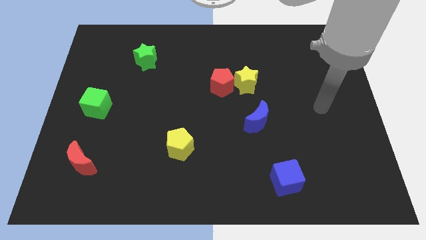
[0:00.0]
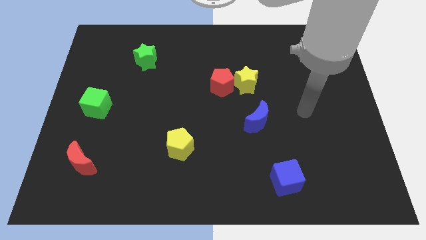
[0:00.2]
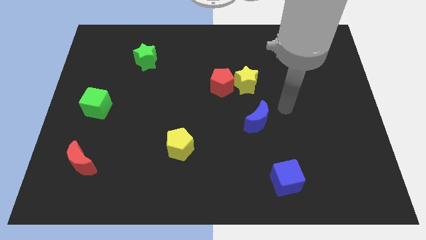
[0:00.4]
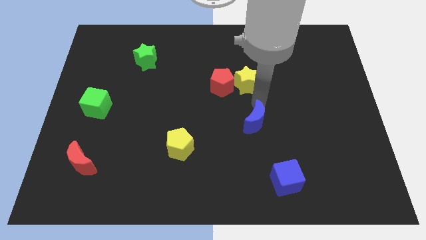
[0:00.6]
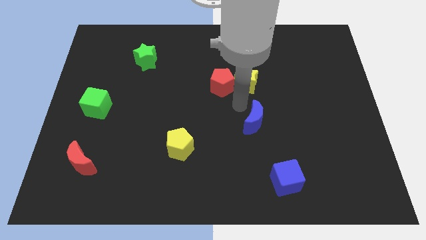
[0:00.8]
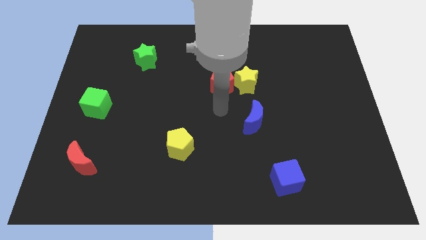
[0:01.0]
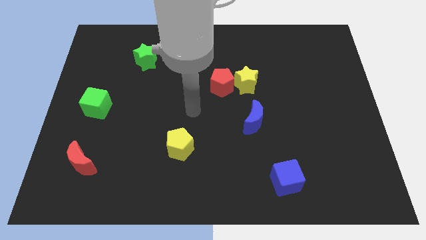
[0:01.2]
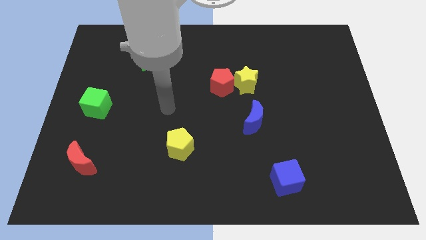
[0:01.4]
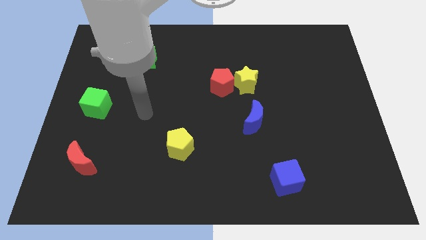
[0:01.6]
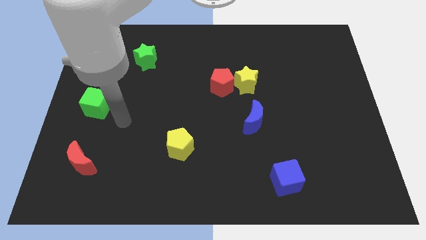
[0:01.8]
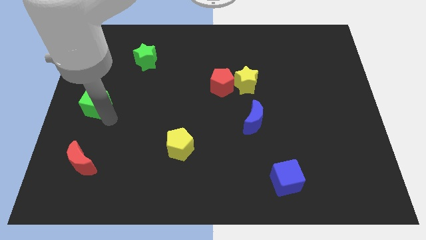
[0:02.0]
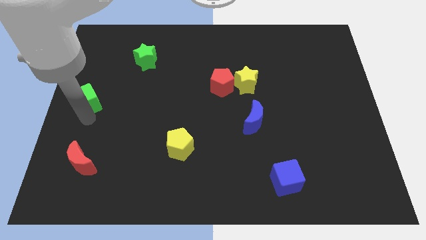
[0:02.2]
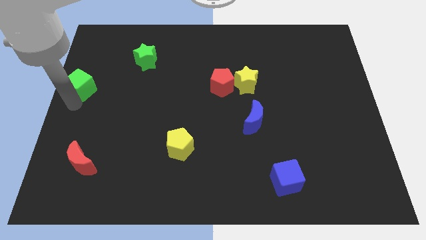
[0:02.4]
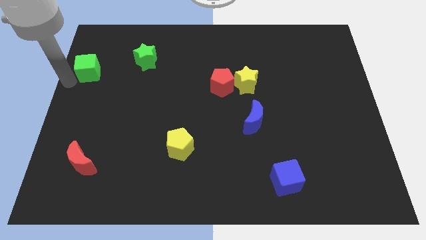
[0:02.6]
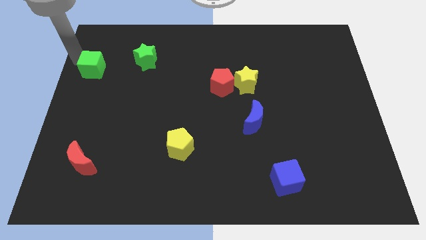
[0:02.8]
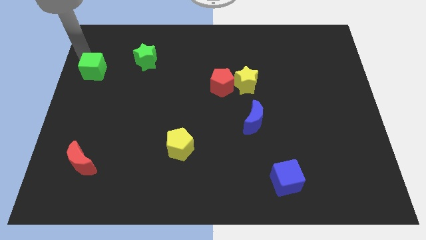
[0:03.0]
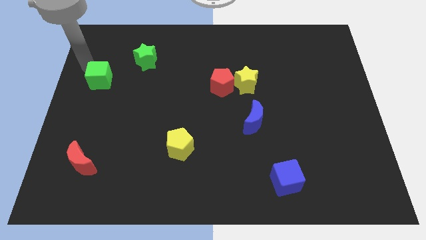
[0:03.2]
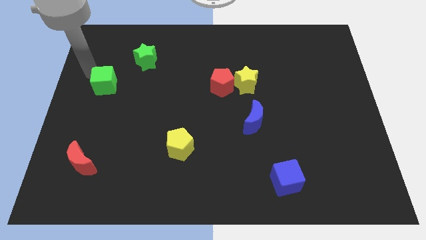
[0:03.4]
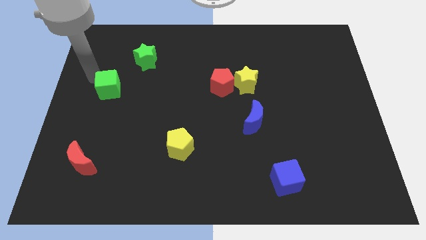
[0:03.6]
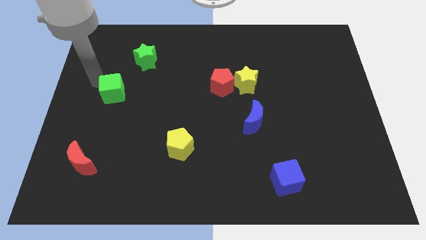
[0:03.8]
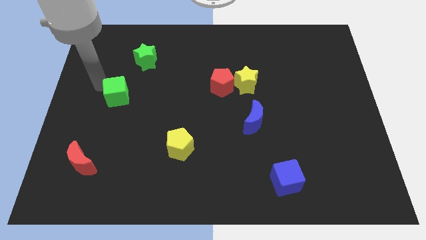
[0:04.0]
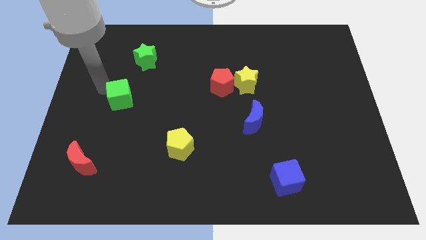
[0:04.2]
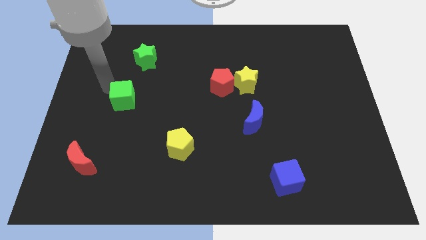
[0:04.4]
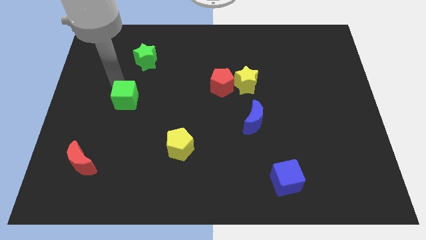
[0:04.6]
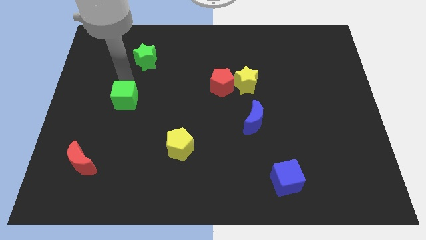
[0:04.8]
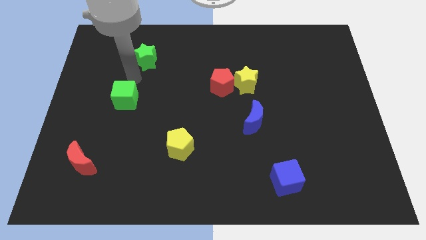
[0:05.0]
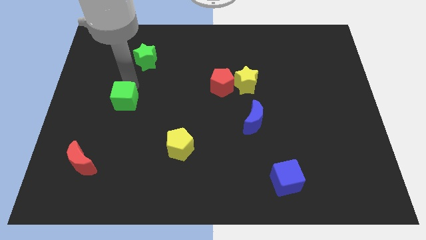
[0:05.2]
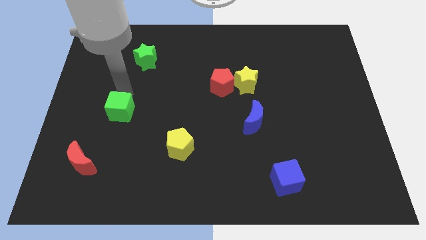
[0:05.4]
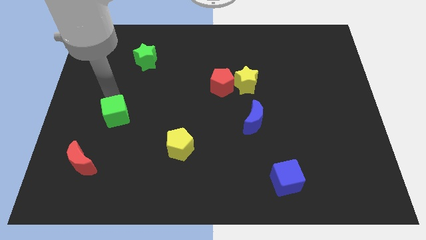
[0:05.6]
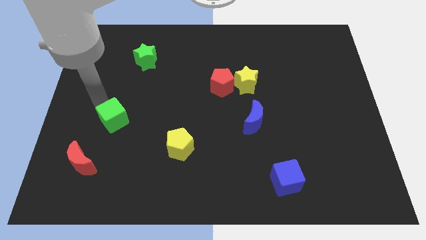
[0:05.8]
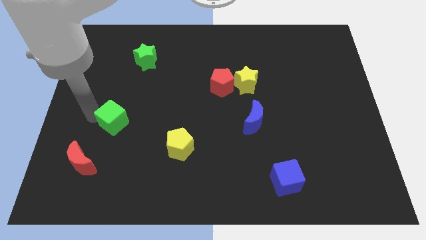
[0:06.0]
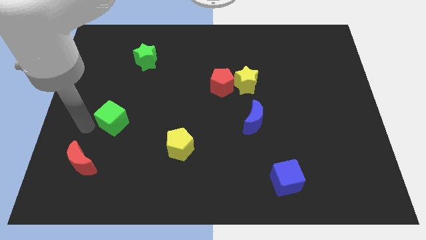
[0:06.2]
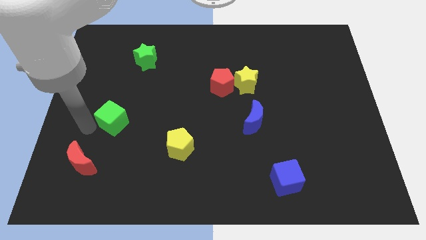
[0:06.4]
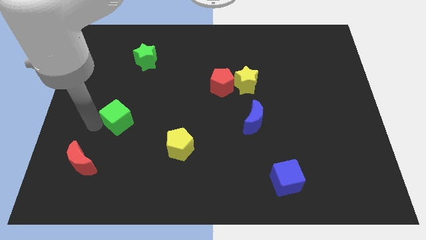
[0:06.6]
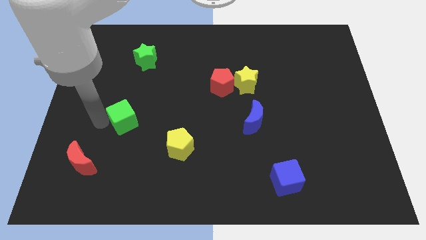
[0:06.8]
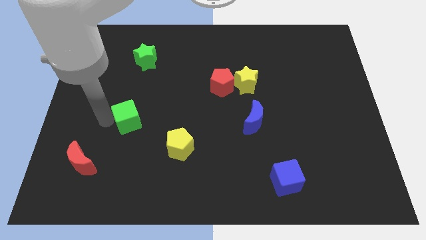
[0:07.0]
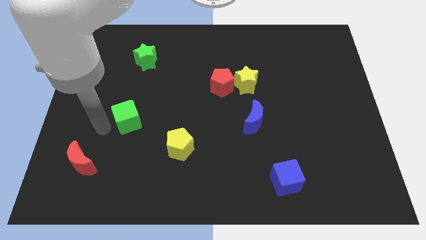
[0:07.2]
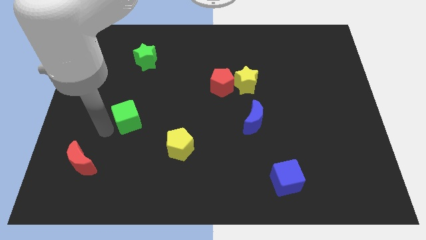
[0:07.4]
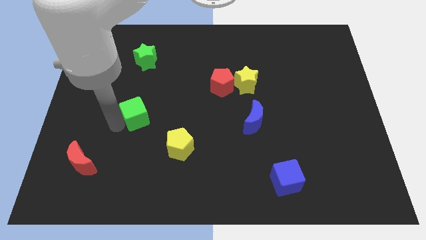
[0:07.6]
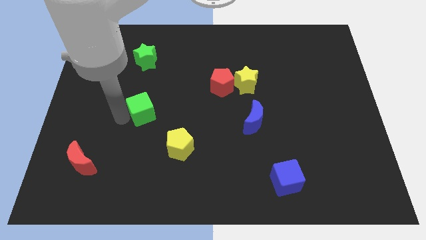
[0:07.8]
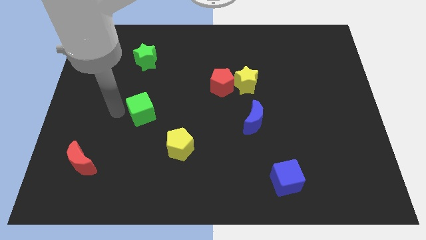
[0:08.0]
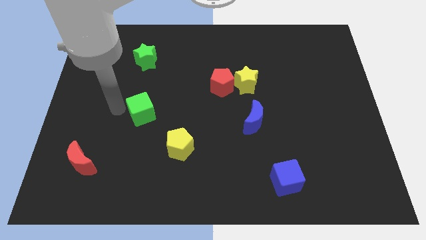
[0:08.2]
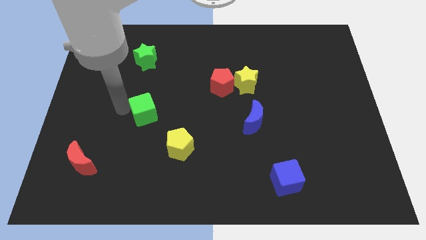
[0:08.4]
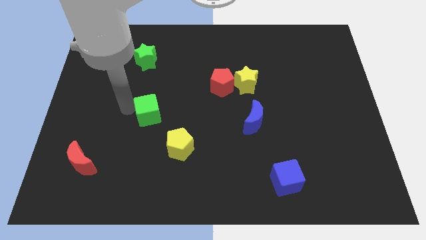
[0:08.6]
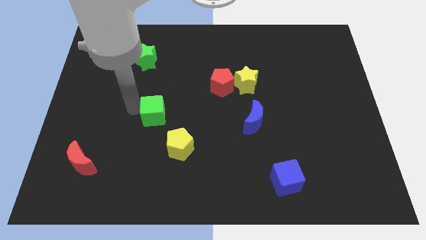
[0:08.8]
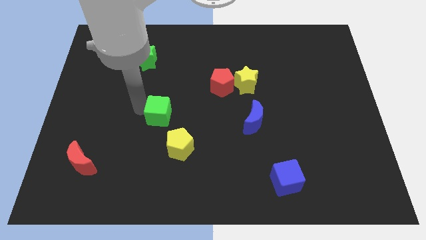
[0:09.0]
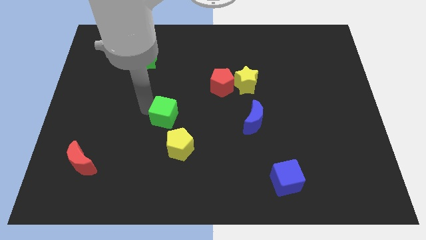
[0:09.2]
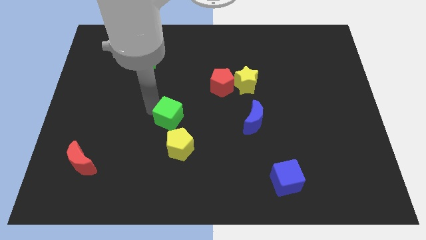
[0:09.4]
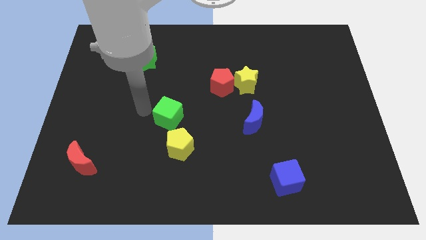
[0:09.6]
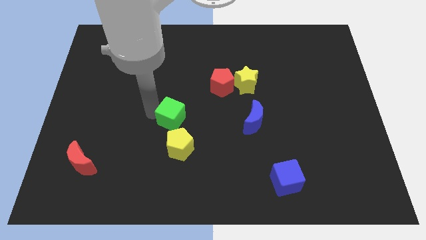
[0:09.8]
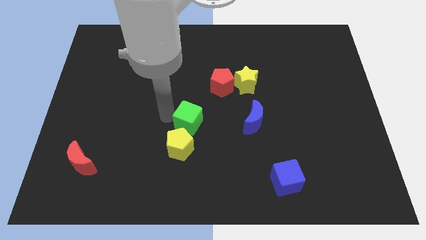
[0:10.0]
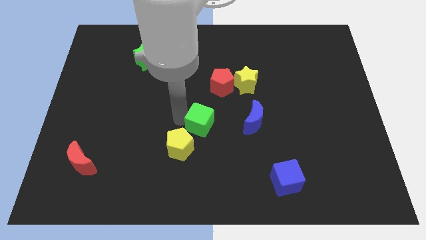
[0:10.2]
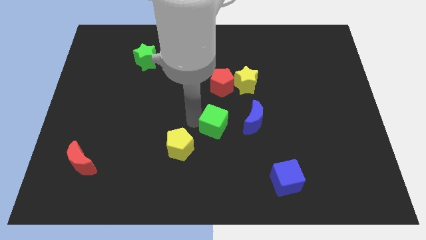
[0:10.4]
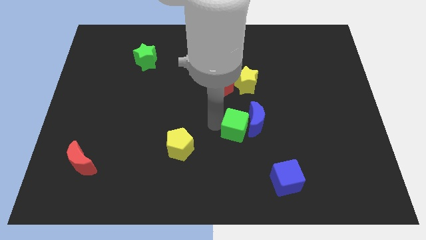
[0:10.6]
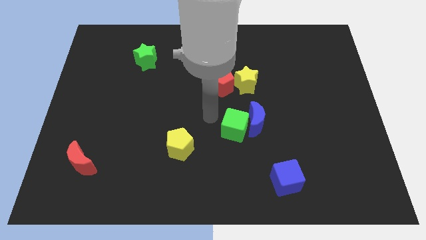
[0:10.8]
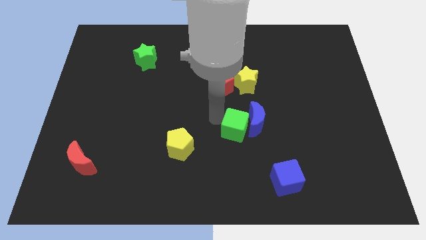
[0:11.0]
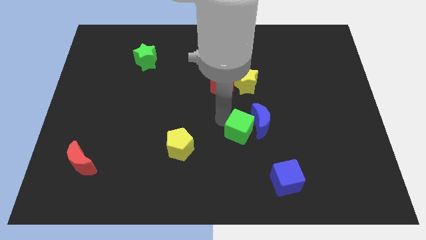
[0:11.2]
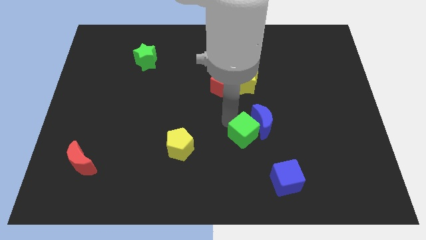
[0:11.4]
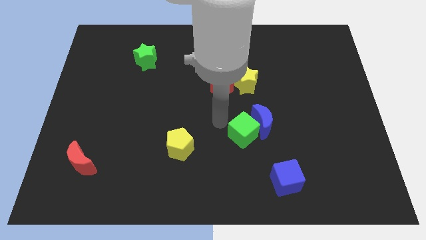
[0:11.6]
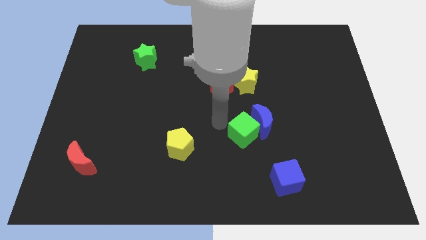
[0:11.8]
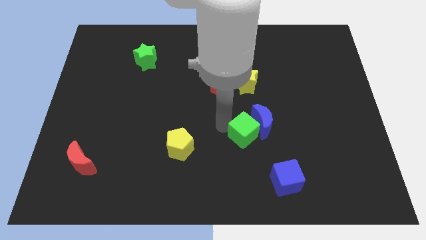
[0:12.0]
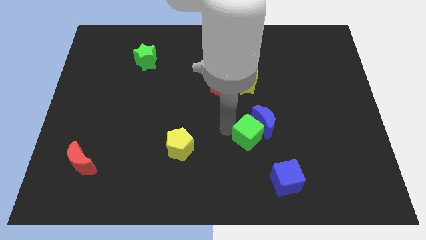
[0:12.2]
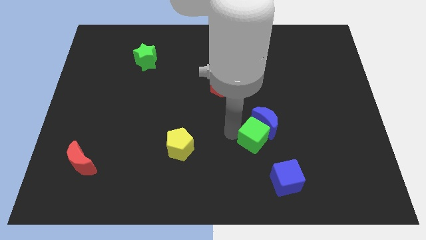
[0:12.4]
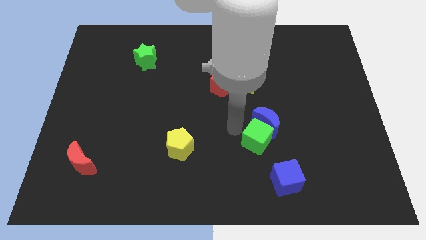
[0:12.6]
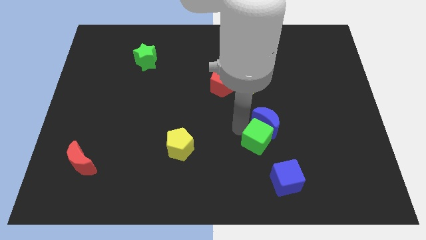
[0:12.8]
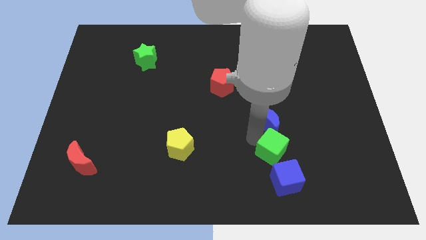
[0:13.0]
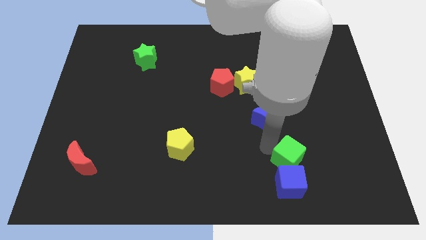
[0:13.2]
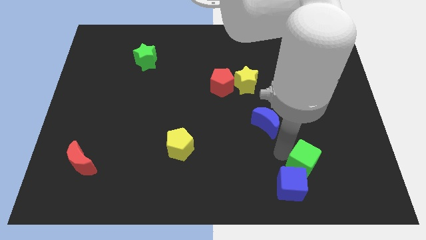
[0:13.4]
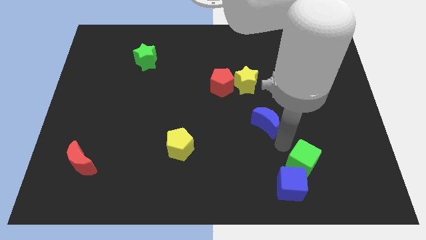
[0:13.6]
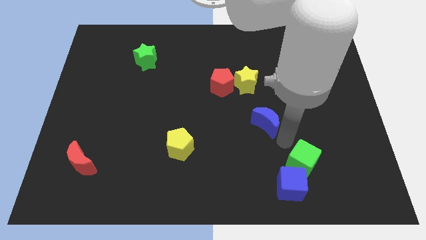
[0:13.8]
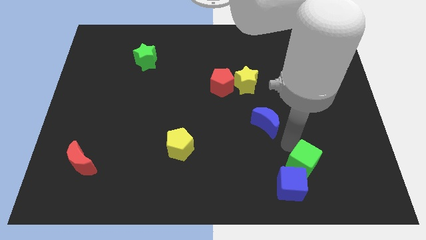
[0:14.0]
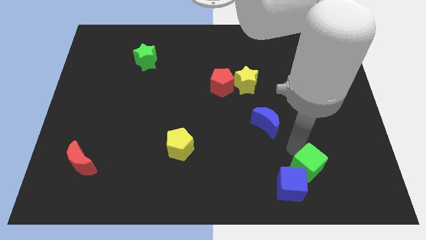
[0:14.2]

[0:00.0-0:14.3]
put the green cube to the right of the blue cube
